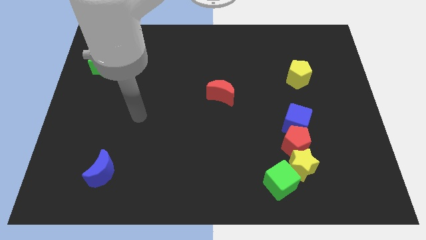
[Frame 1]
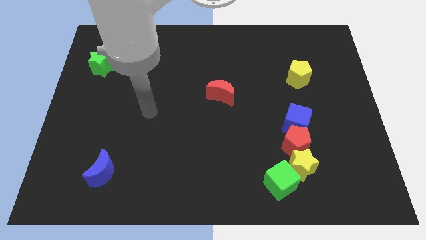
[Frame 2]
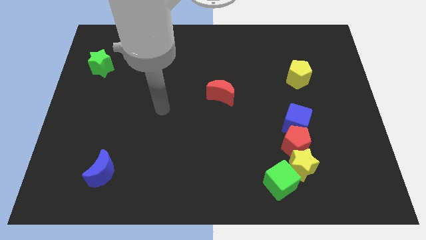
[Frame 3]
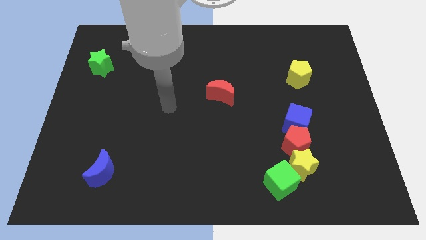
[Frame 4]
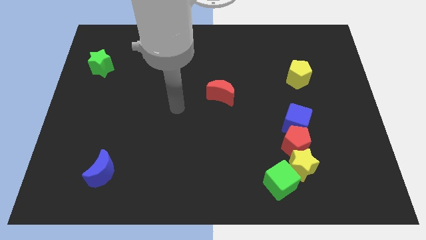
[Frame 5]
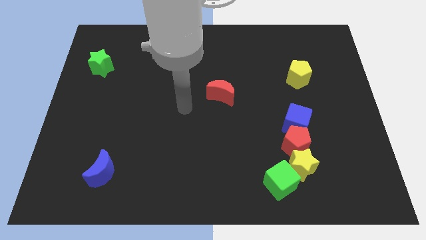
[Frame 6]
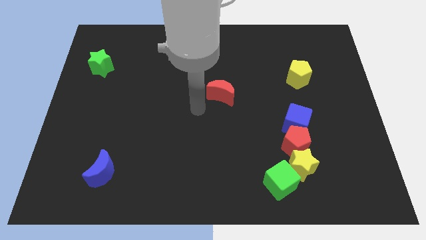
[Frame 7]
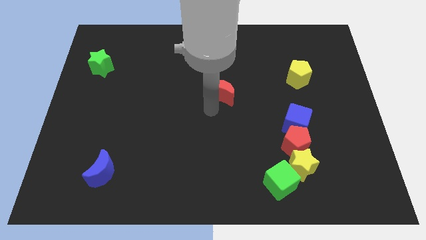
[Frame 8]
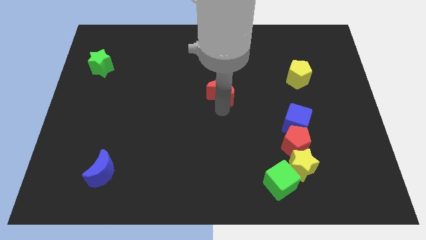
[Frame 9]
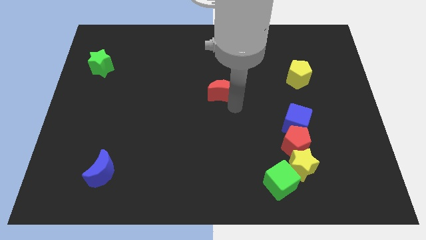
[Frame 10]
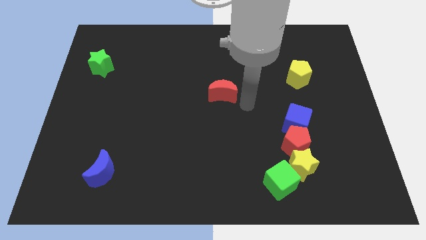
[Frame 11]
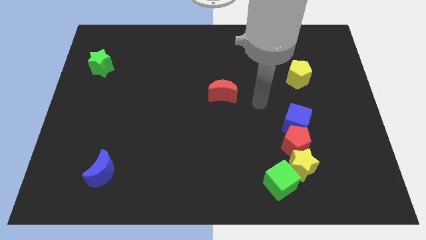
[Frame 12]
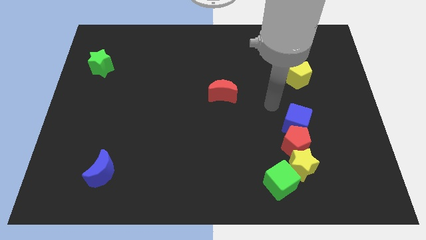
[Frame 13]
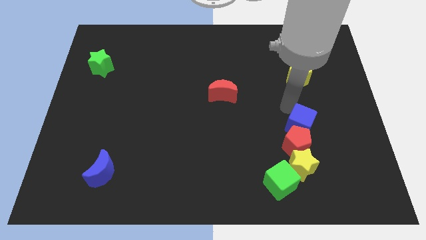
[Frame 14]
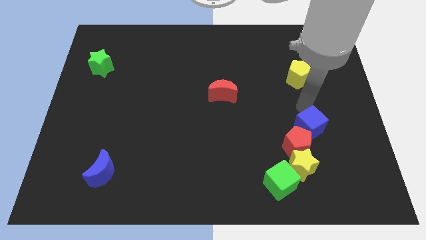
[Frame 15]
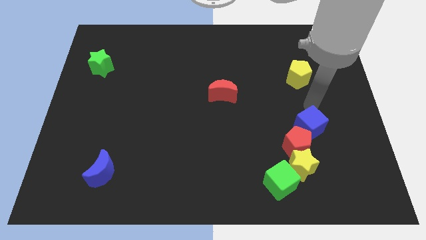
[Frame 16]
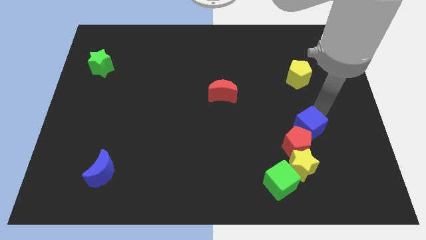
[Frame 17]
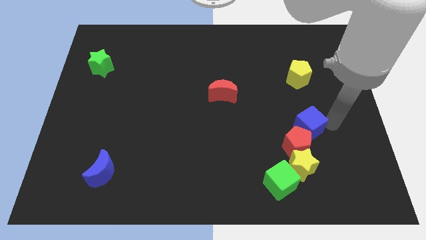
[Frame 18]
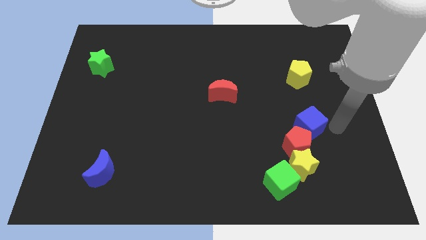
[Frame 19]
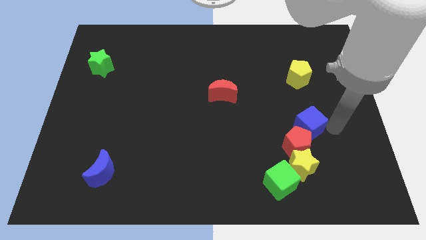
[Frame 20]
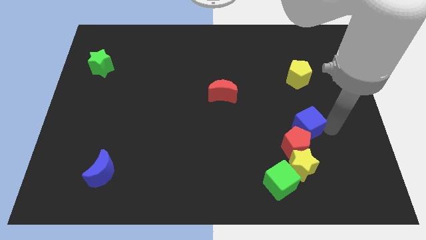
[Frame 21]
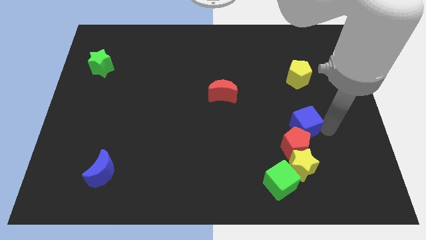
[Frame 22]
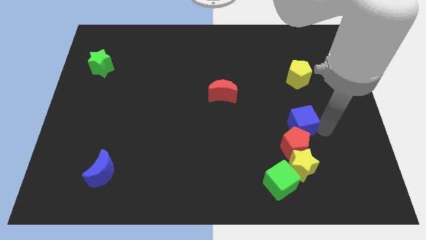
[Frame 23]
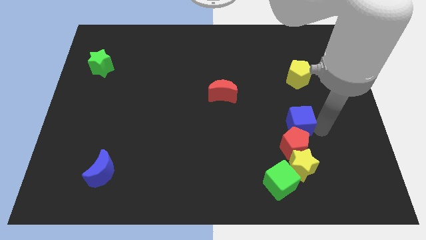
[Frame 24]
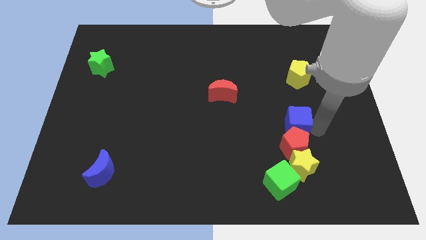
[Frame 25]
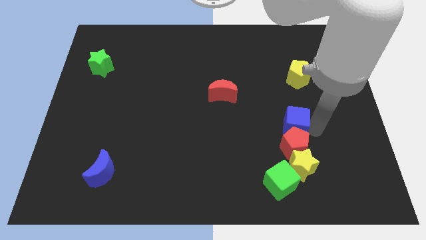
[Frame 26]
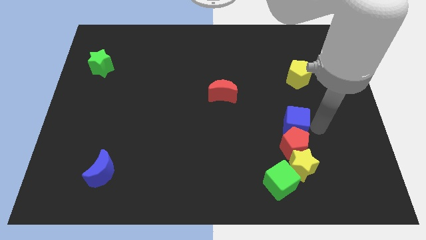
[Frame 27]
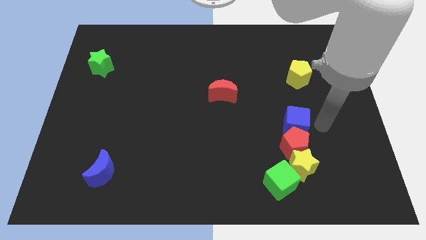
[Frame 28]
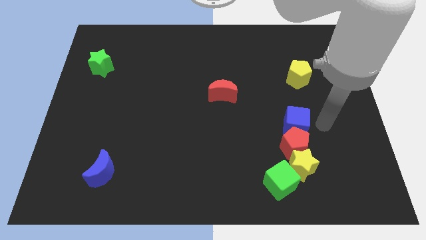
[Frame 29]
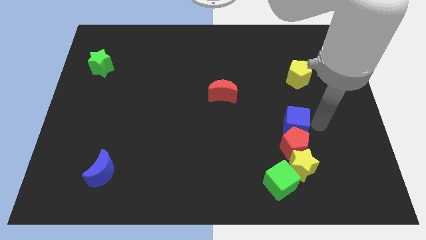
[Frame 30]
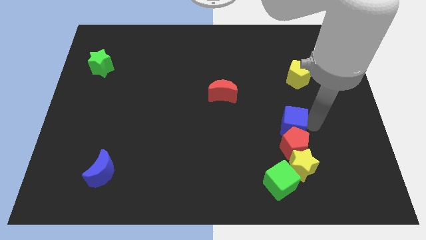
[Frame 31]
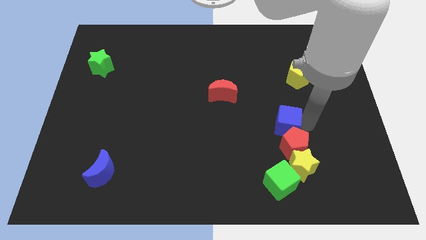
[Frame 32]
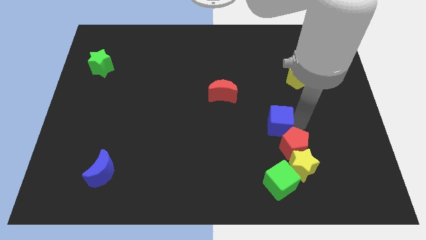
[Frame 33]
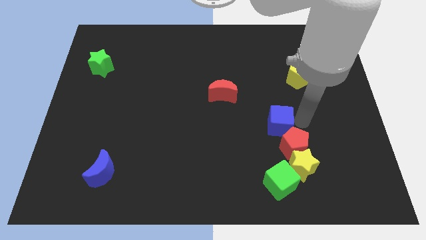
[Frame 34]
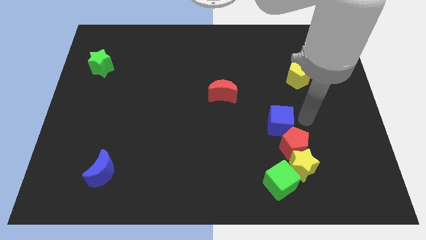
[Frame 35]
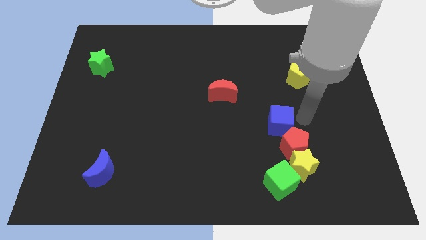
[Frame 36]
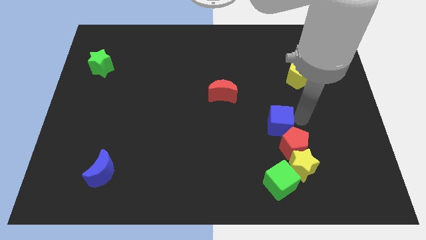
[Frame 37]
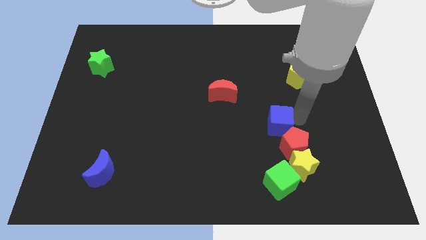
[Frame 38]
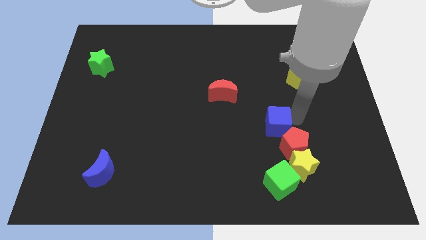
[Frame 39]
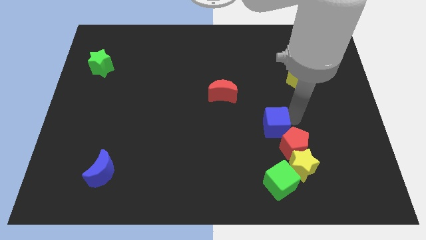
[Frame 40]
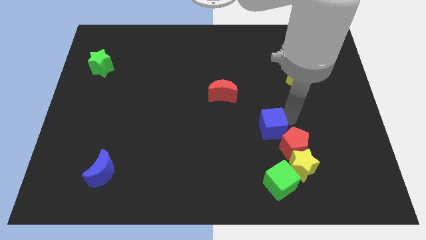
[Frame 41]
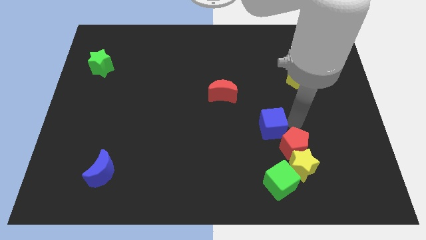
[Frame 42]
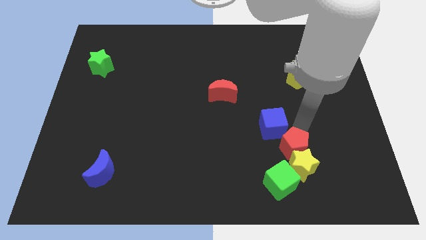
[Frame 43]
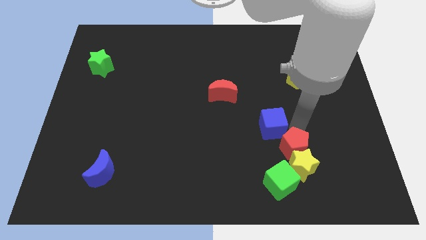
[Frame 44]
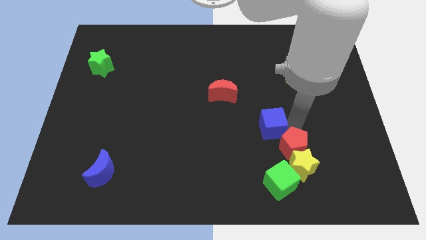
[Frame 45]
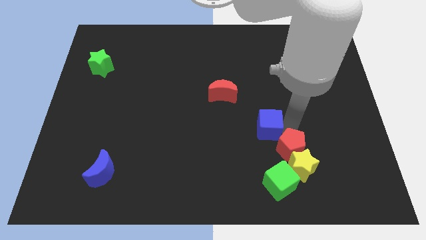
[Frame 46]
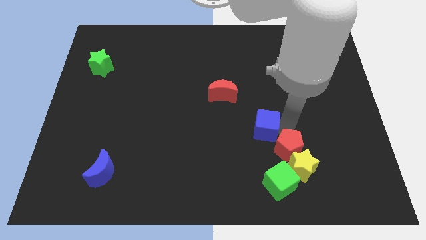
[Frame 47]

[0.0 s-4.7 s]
slightly slide the blue cube left

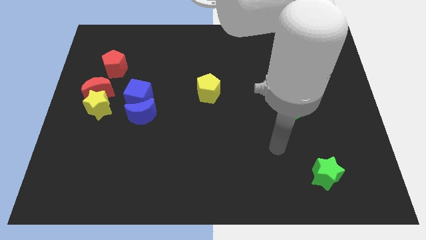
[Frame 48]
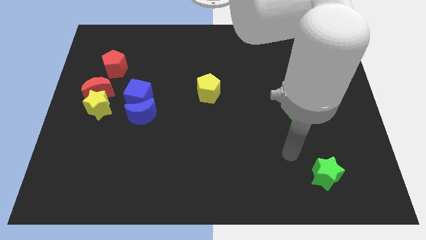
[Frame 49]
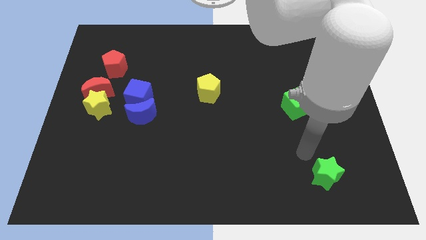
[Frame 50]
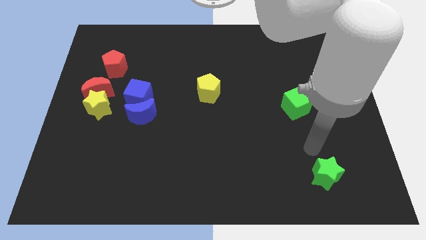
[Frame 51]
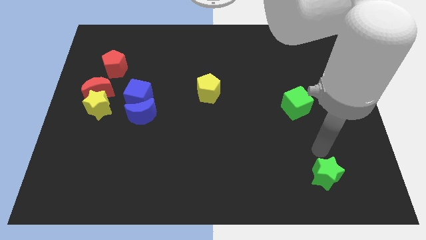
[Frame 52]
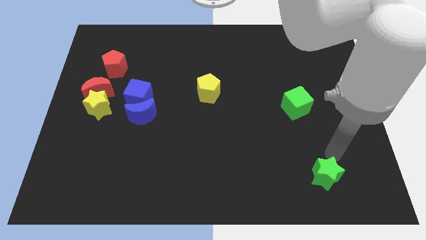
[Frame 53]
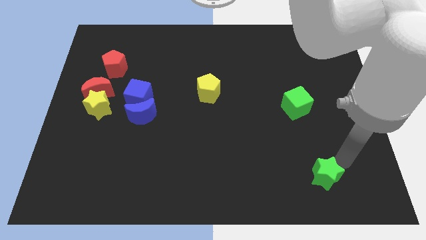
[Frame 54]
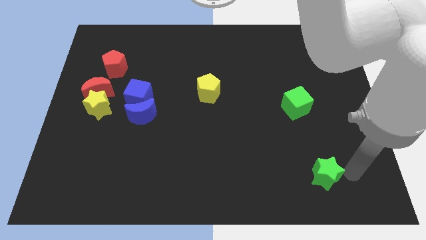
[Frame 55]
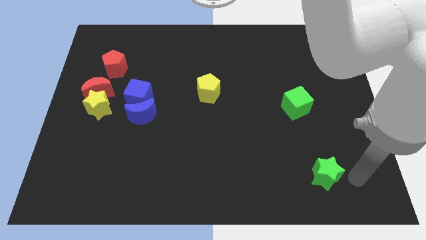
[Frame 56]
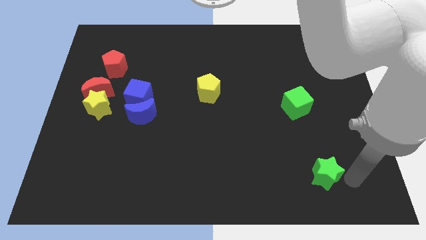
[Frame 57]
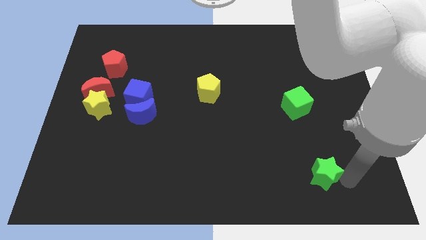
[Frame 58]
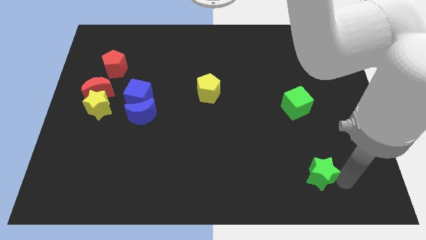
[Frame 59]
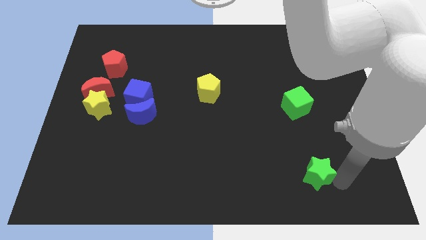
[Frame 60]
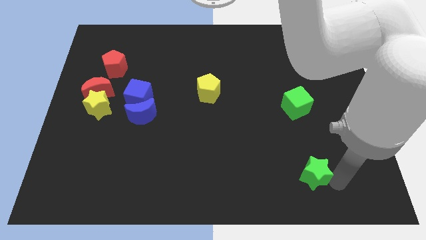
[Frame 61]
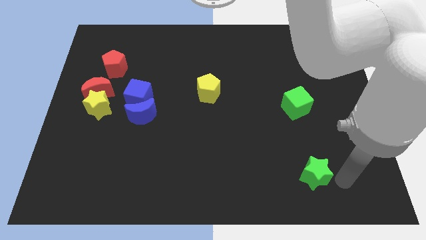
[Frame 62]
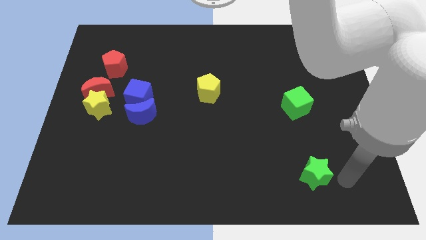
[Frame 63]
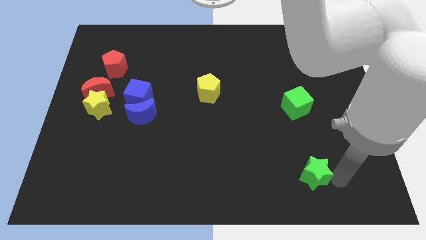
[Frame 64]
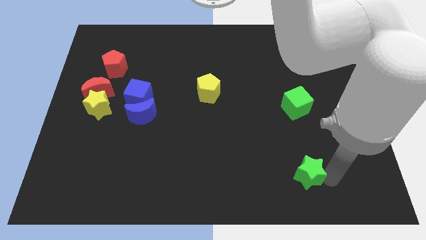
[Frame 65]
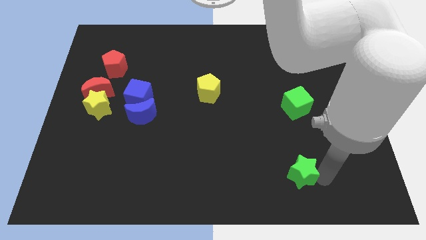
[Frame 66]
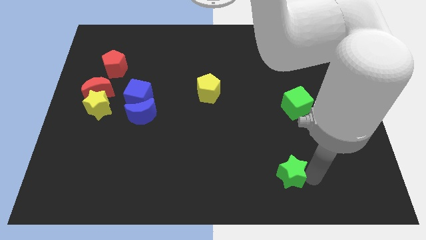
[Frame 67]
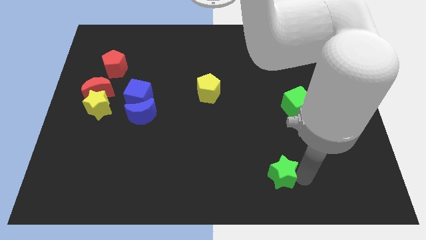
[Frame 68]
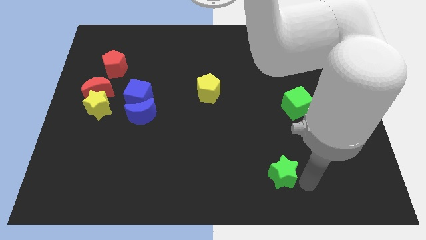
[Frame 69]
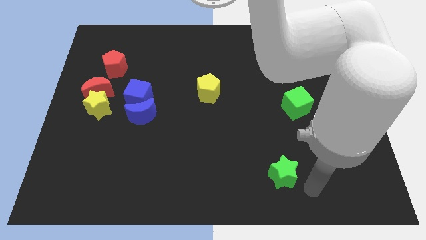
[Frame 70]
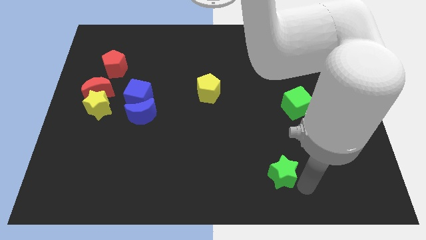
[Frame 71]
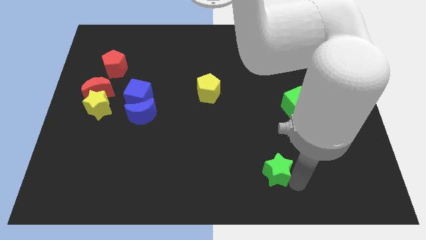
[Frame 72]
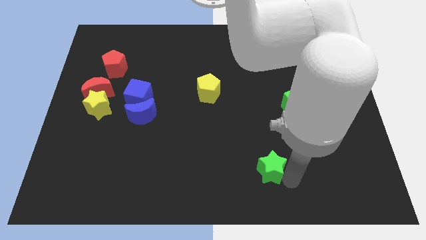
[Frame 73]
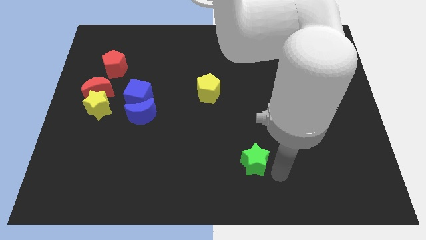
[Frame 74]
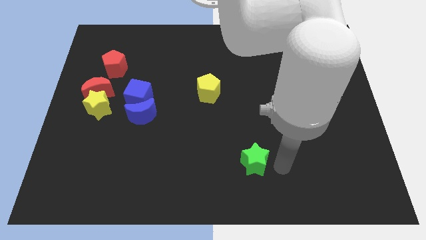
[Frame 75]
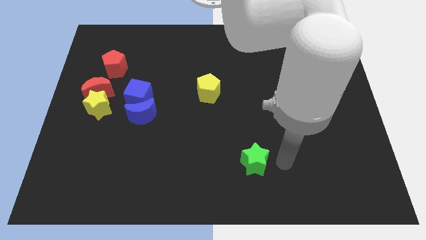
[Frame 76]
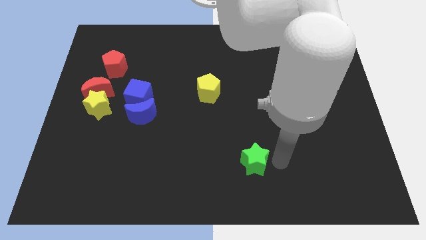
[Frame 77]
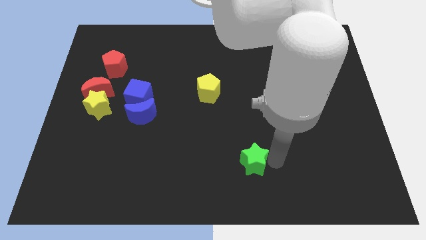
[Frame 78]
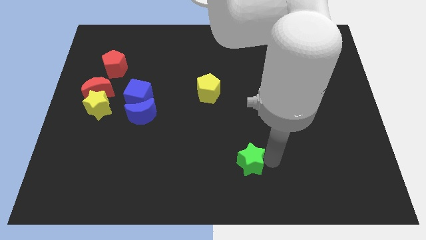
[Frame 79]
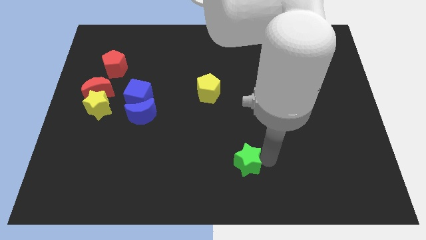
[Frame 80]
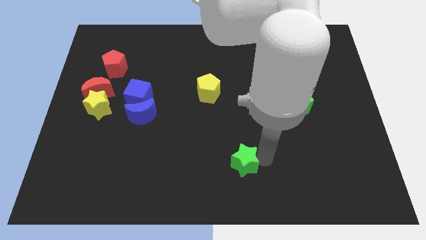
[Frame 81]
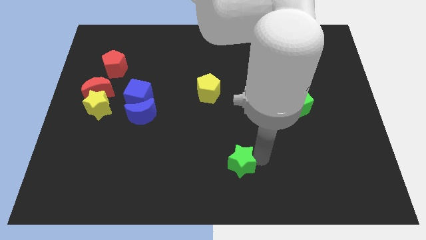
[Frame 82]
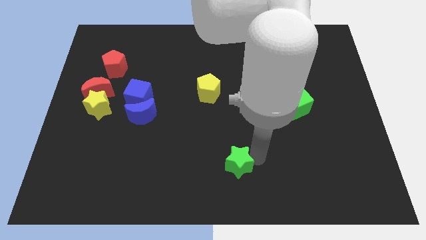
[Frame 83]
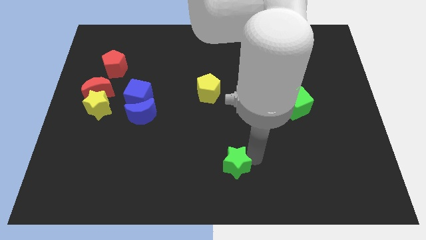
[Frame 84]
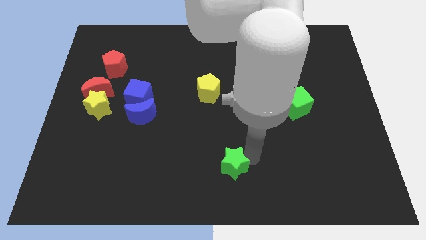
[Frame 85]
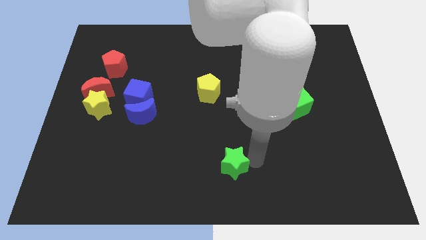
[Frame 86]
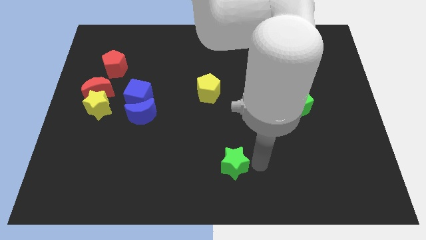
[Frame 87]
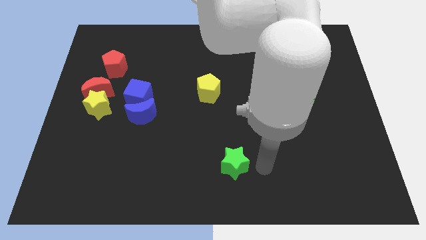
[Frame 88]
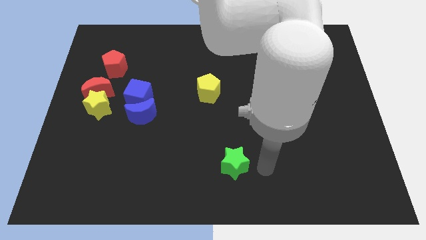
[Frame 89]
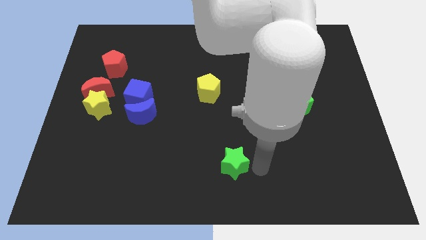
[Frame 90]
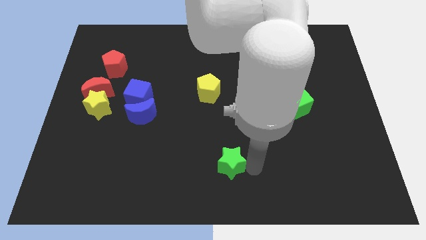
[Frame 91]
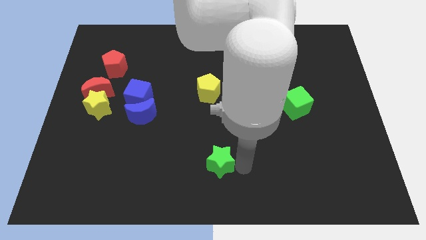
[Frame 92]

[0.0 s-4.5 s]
move the green star to the left
